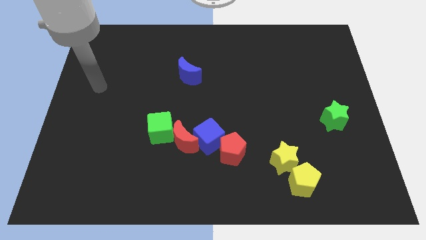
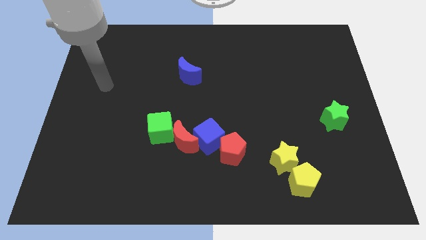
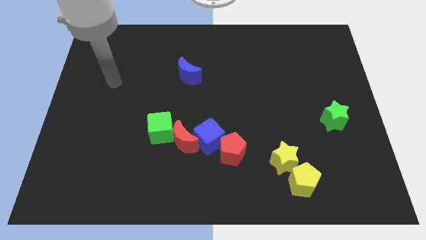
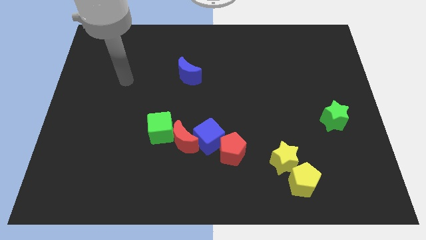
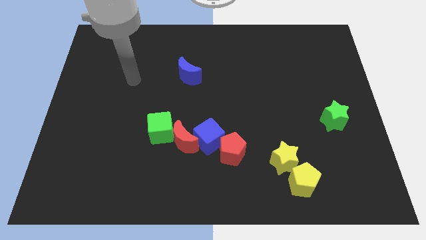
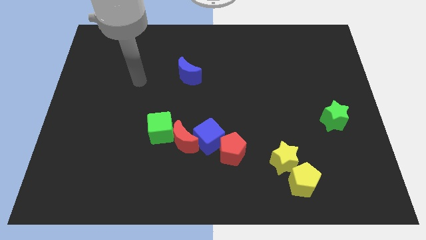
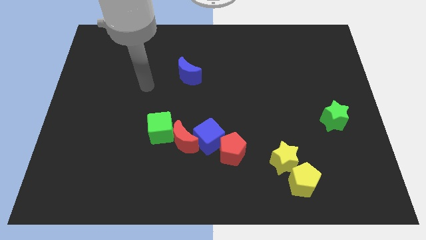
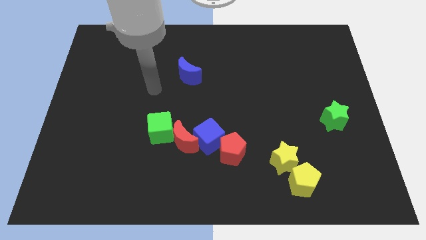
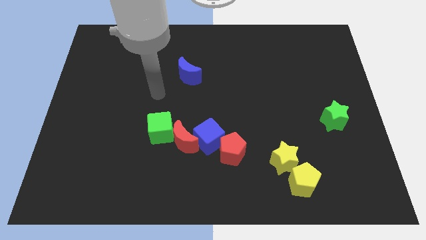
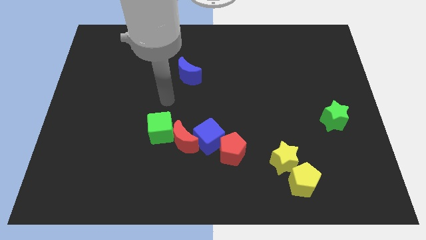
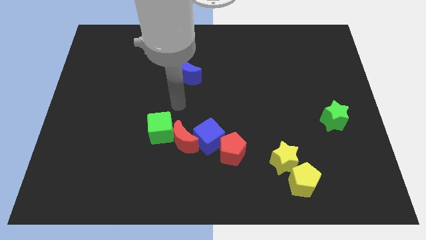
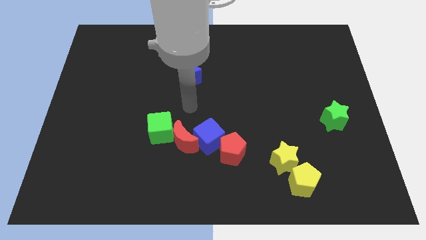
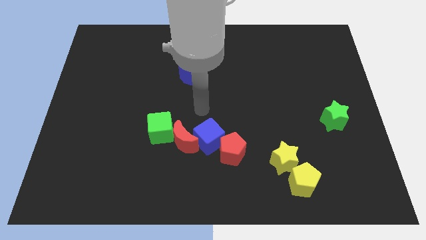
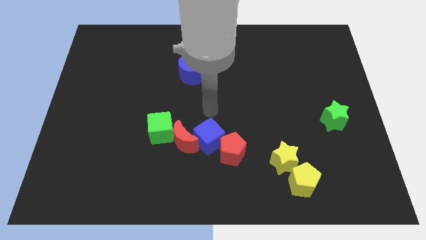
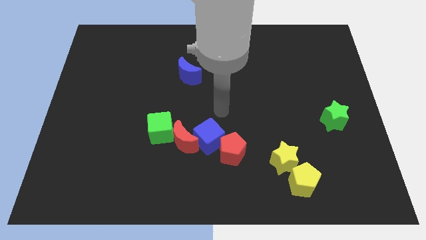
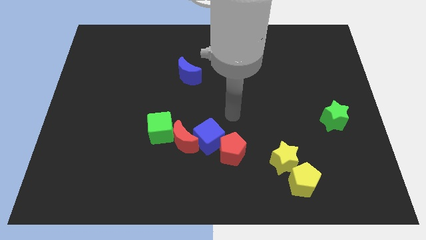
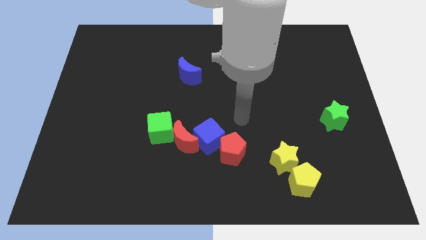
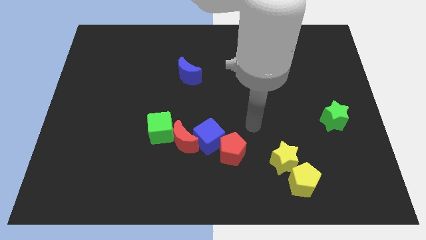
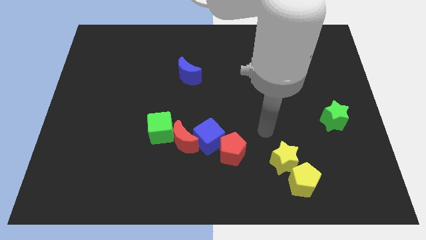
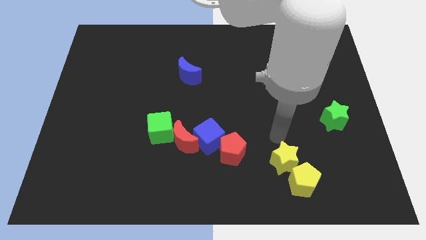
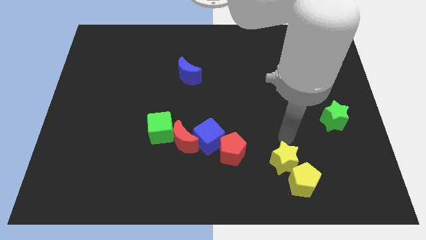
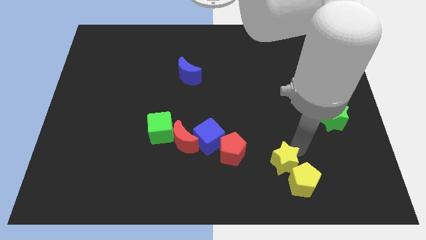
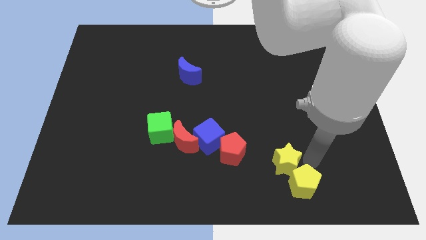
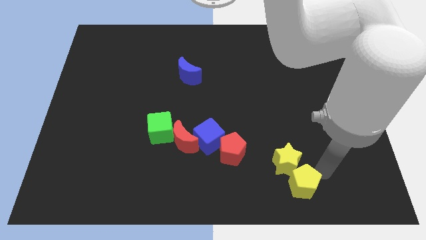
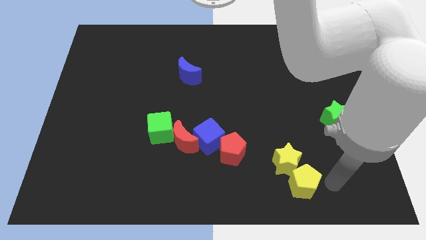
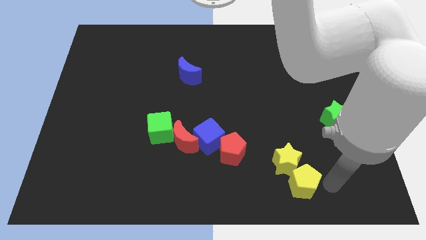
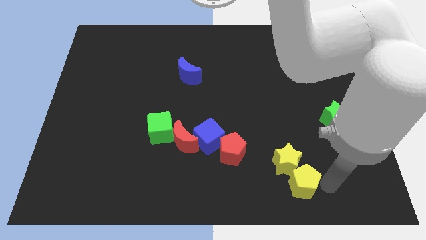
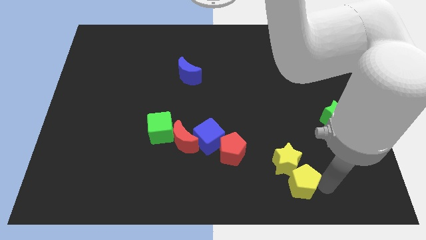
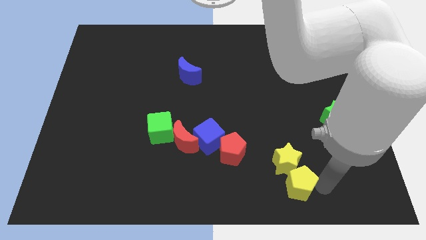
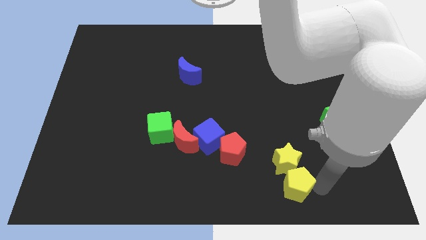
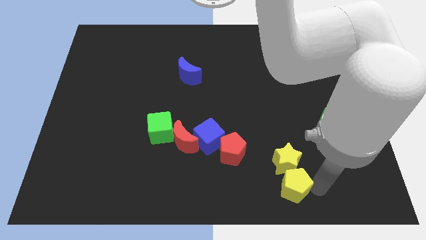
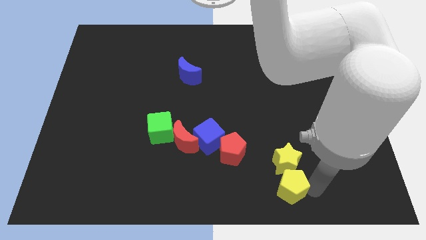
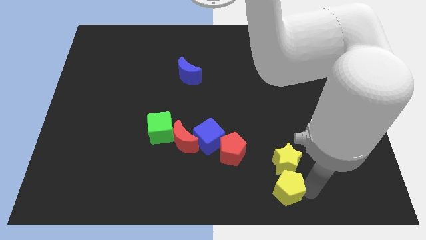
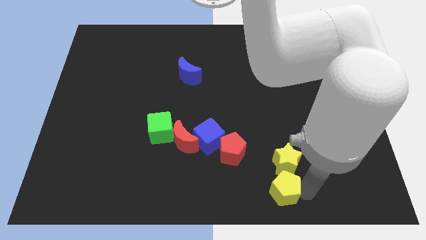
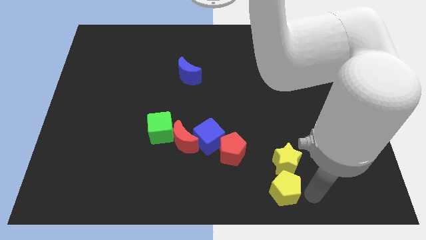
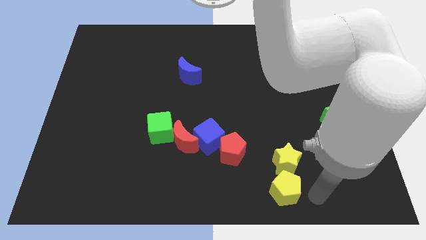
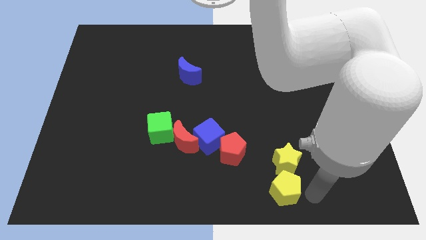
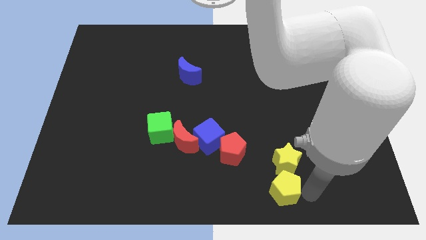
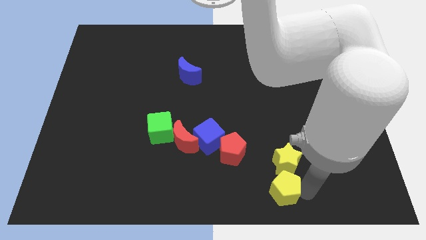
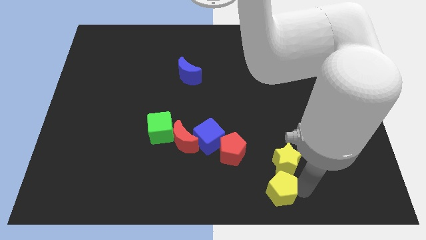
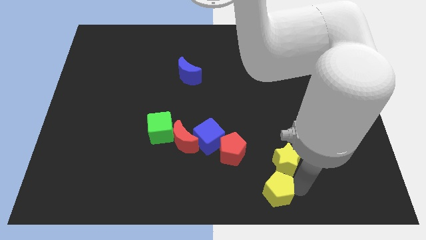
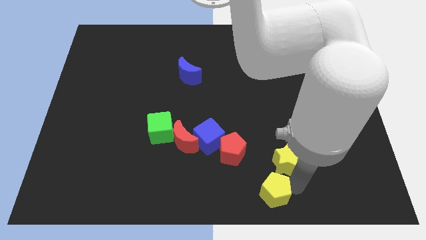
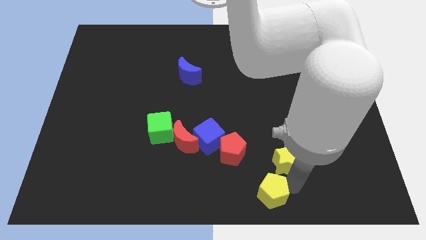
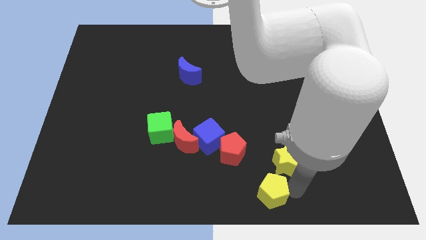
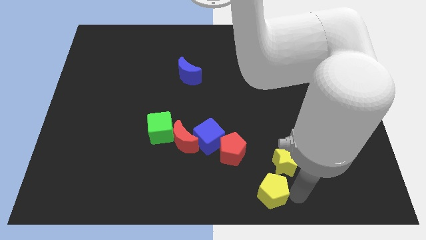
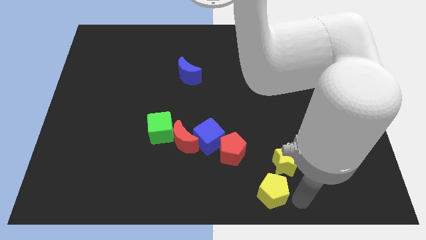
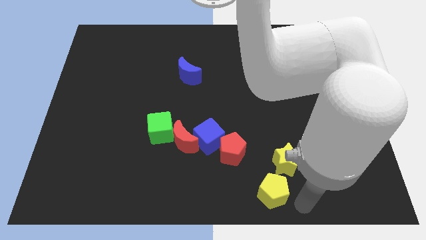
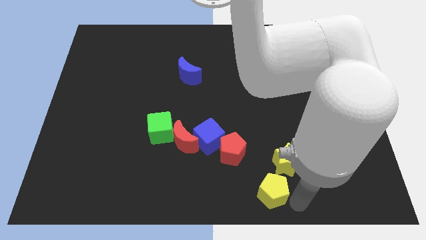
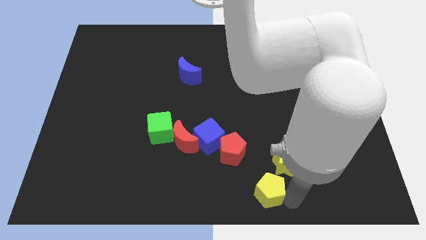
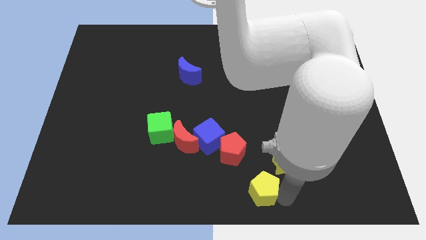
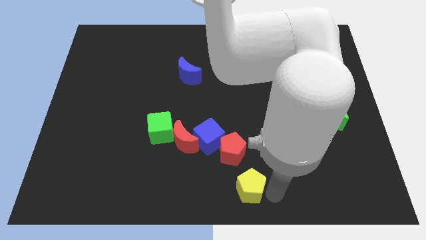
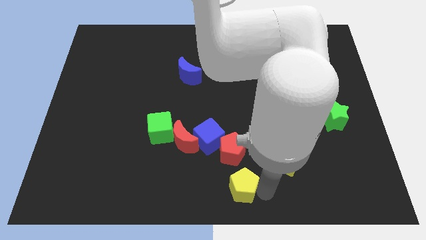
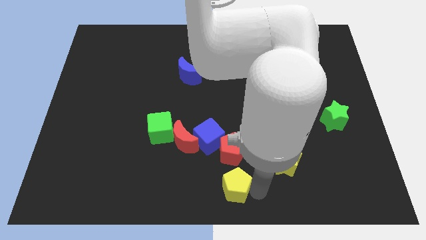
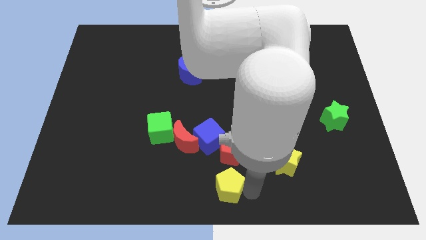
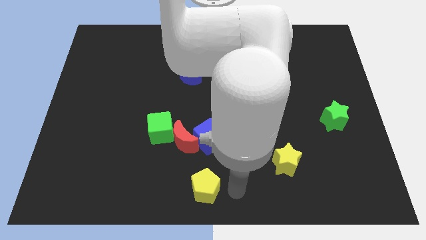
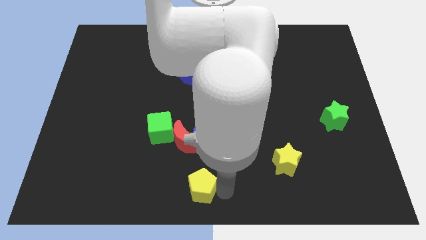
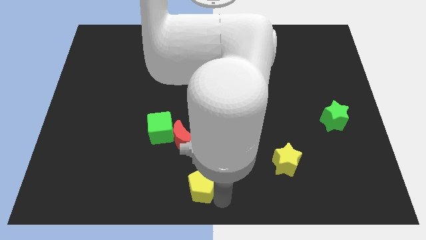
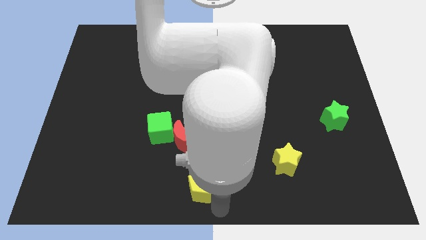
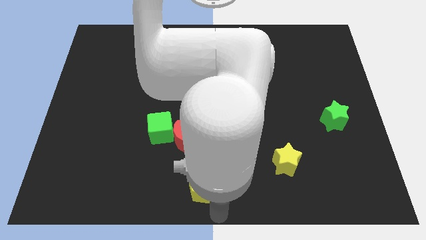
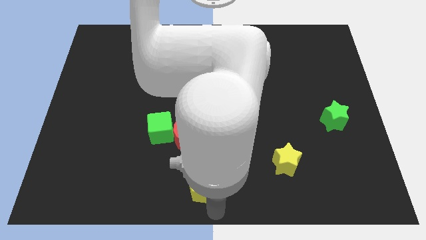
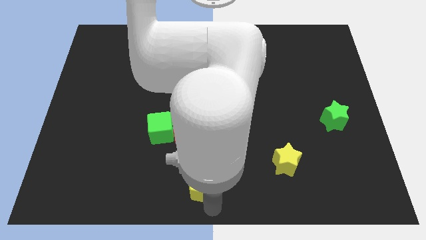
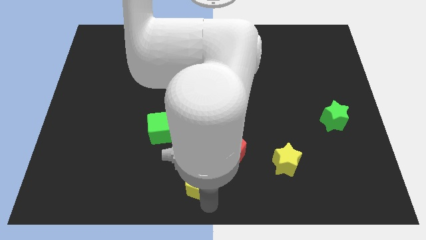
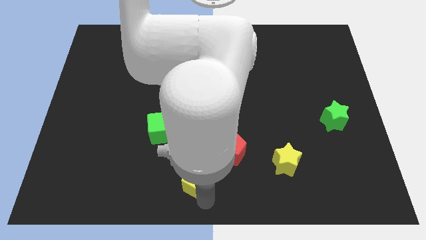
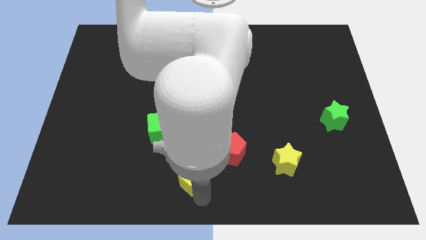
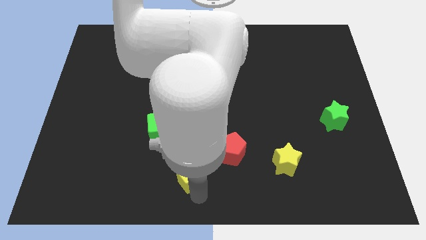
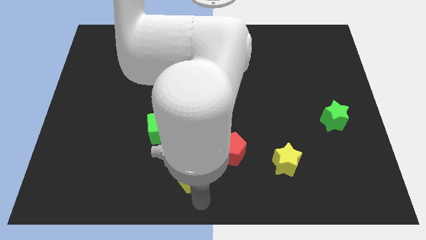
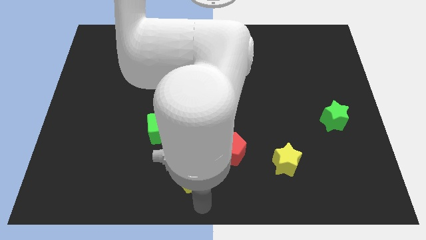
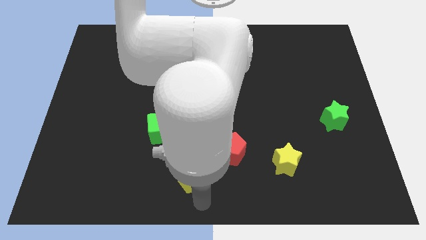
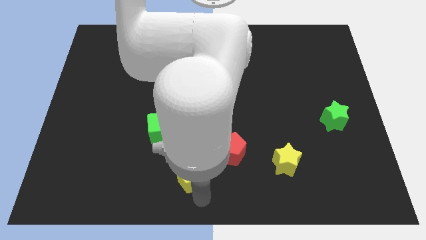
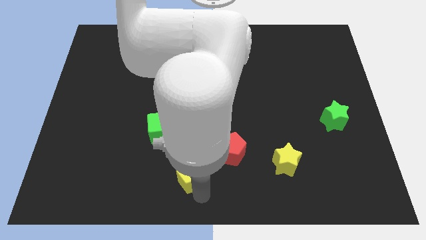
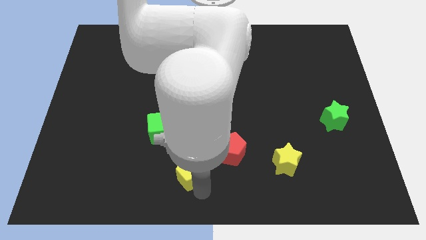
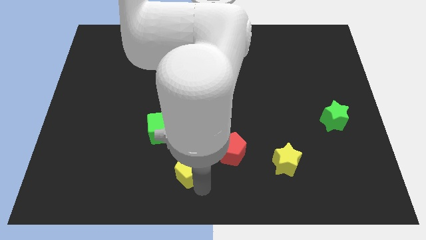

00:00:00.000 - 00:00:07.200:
move the yellow pentagon to the bottom right side of the green cube

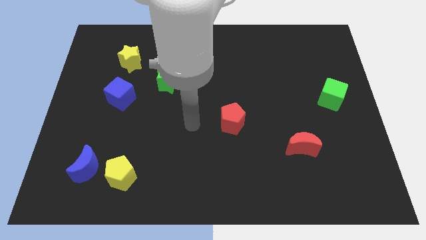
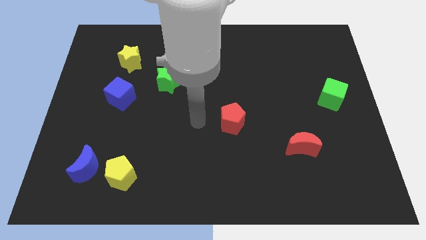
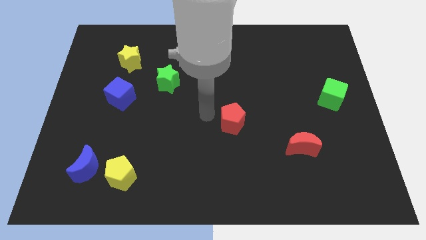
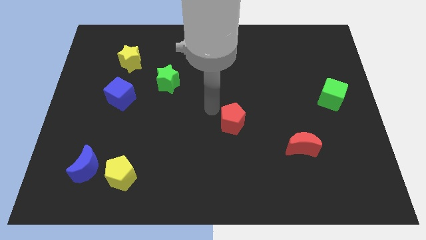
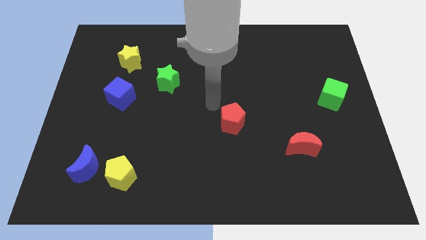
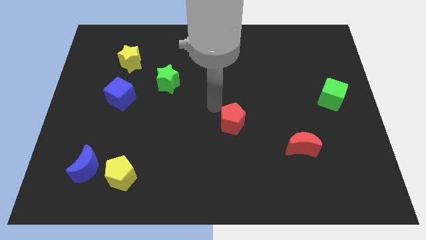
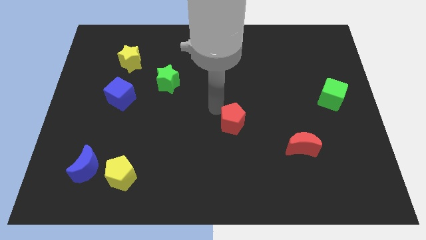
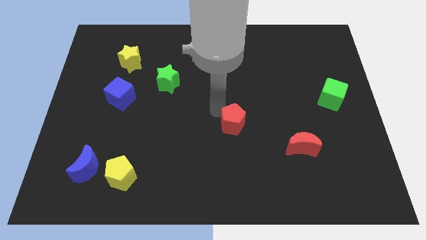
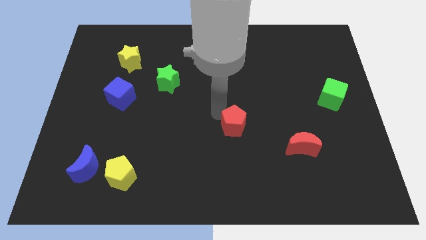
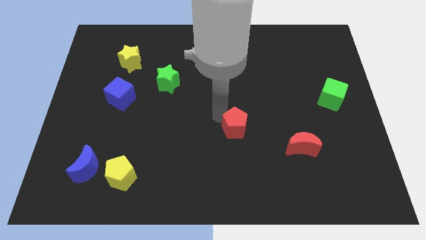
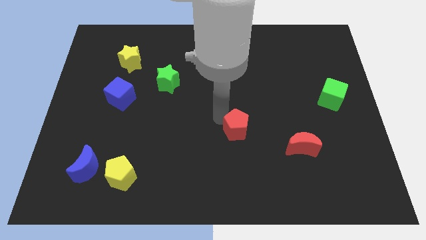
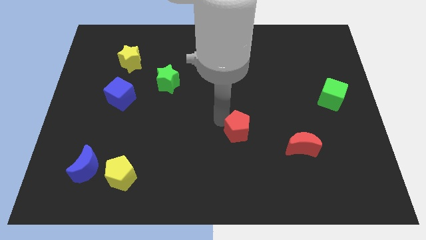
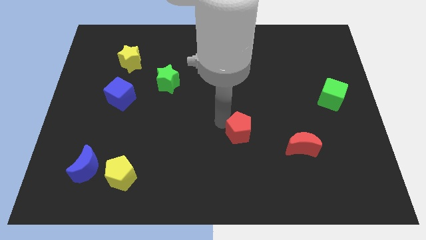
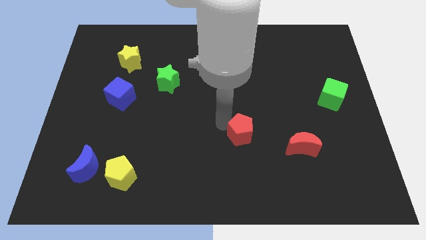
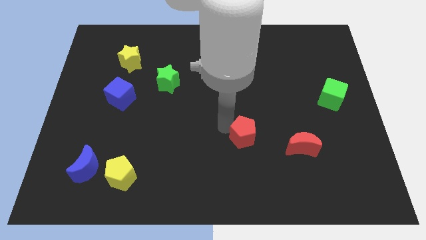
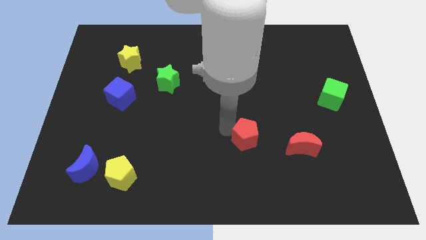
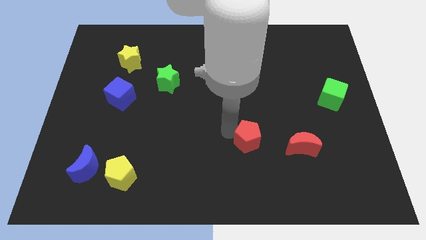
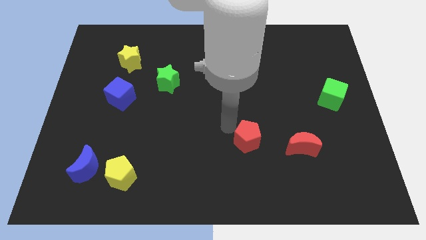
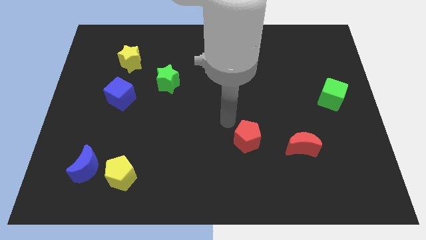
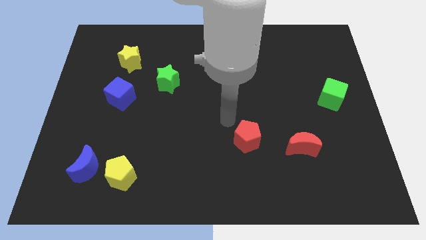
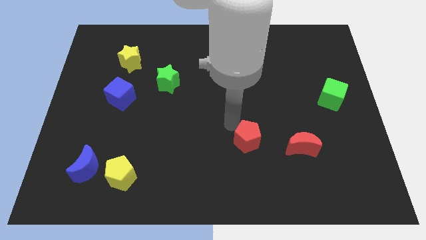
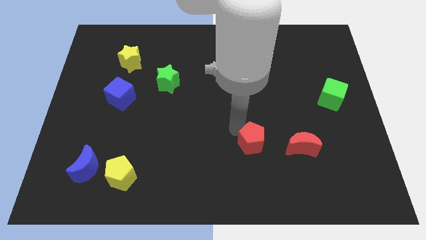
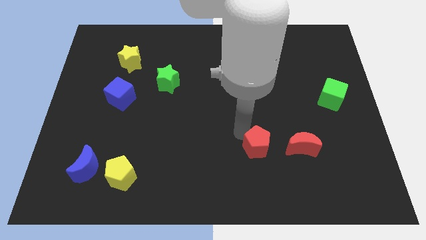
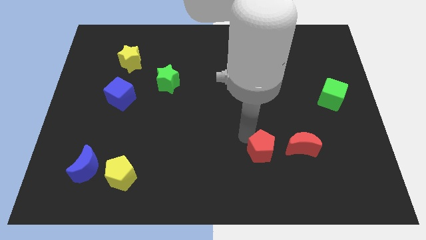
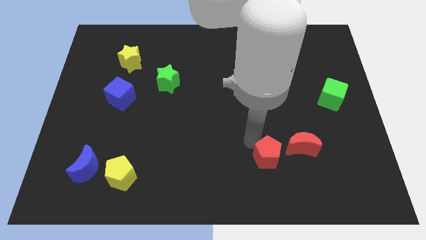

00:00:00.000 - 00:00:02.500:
move the red pentagon to the bottom left of the red moon
